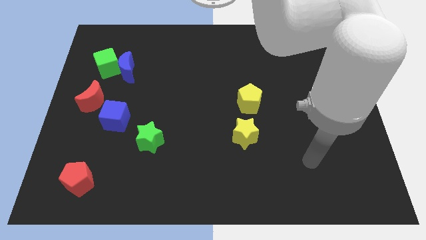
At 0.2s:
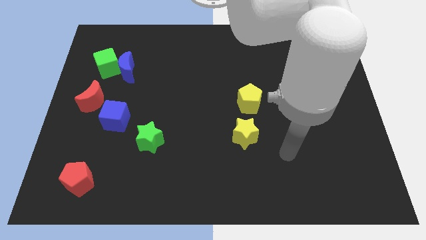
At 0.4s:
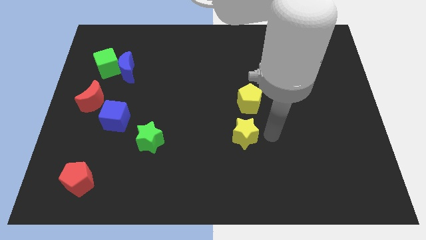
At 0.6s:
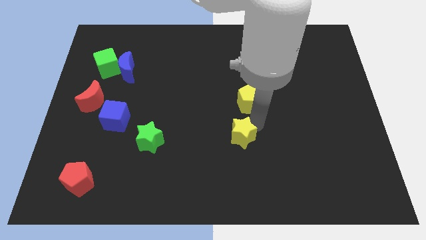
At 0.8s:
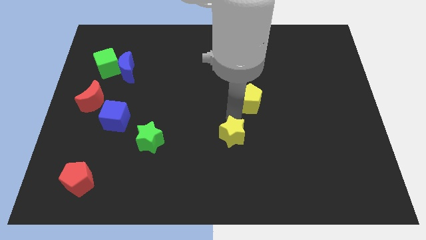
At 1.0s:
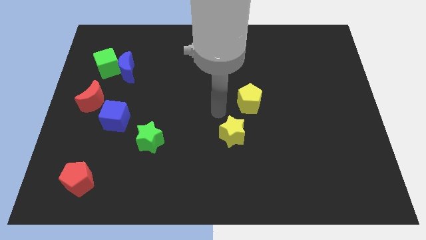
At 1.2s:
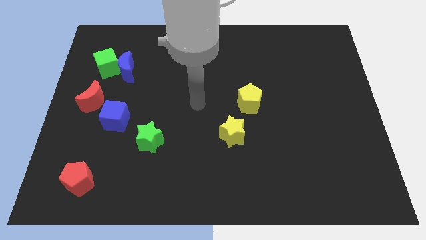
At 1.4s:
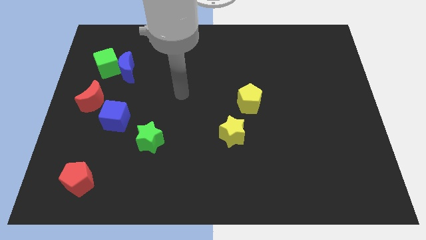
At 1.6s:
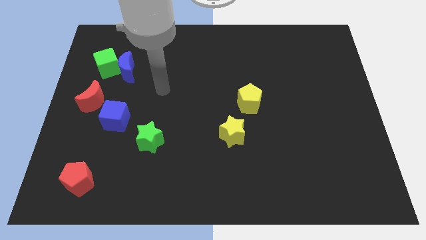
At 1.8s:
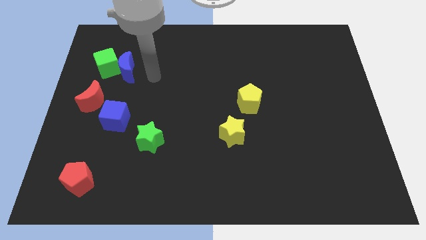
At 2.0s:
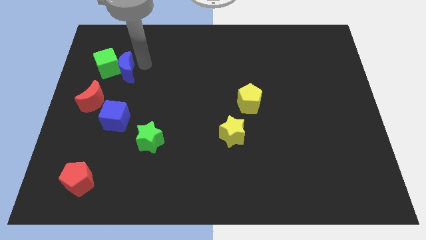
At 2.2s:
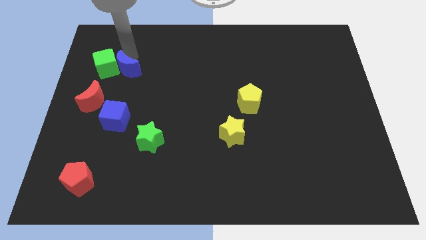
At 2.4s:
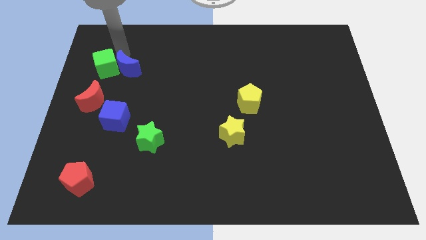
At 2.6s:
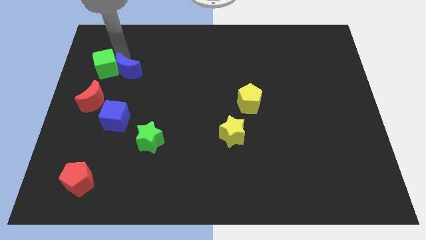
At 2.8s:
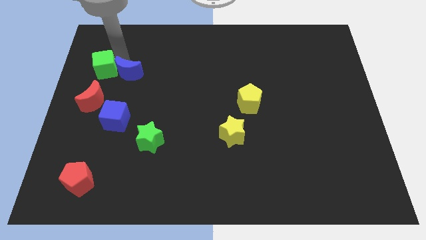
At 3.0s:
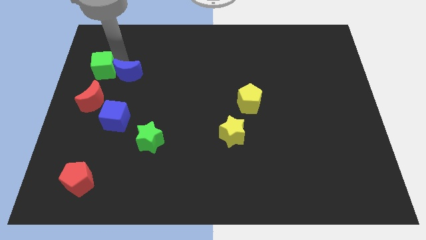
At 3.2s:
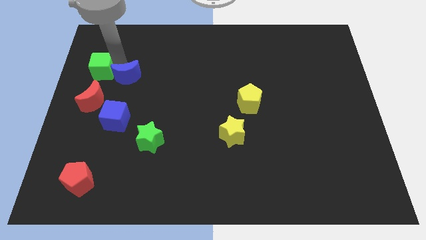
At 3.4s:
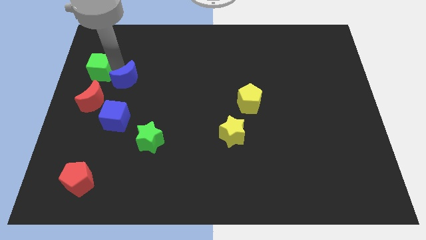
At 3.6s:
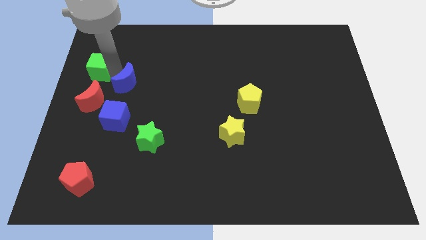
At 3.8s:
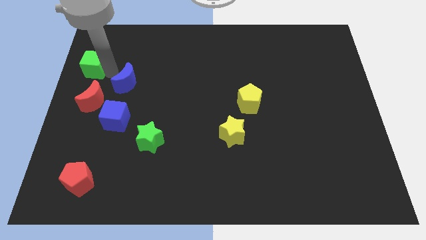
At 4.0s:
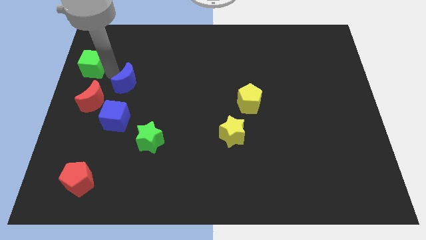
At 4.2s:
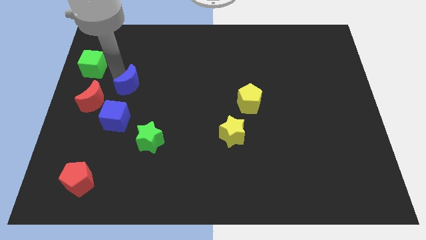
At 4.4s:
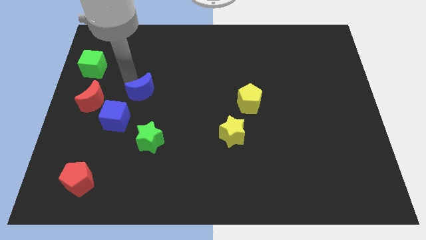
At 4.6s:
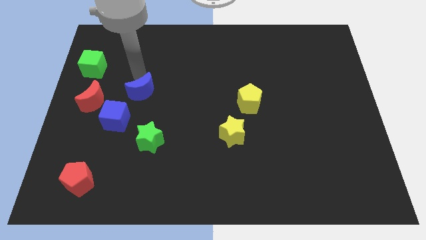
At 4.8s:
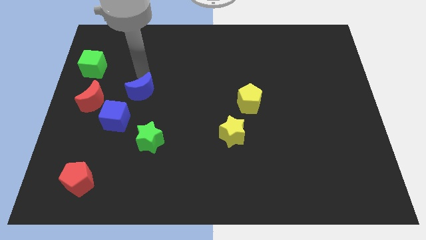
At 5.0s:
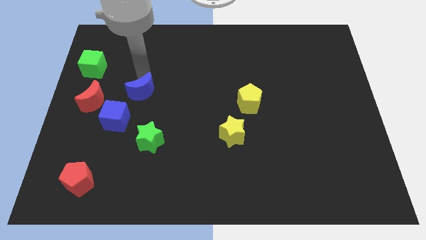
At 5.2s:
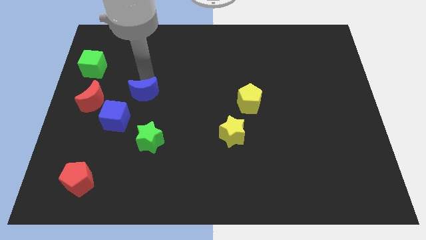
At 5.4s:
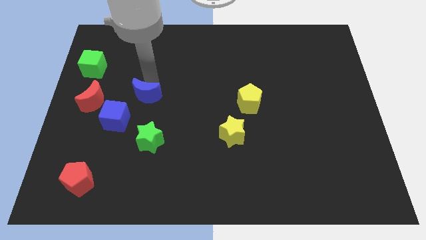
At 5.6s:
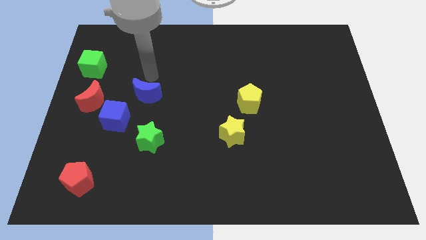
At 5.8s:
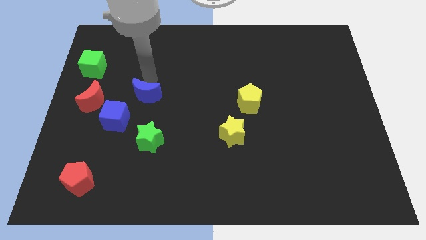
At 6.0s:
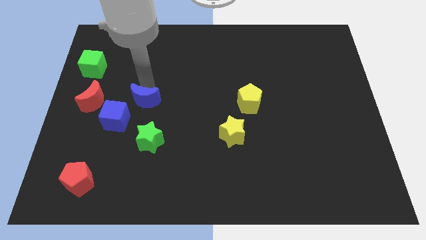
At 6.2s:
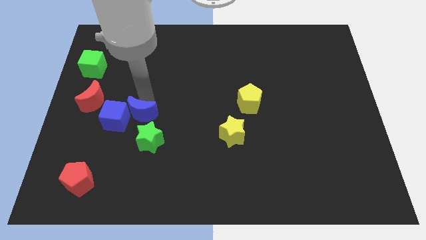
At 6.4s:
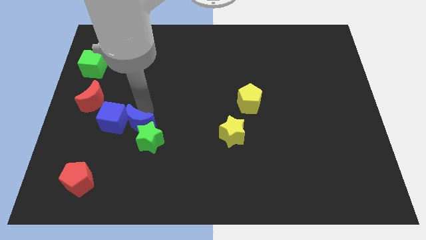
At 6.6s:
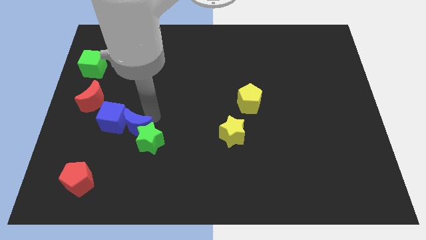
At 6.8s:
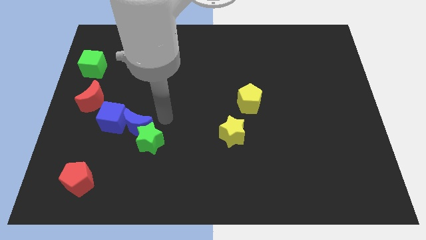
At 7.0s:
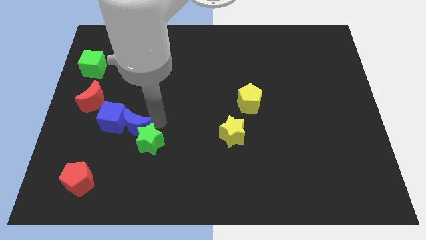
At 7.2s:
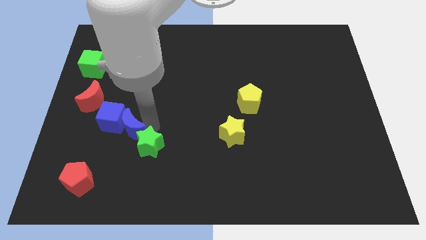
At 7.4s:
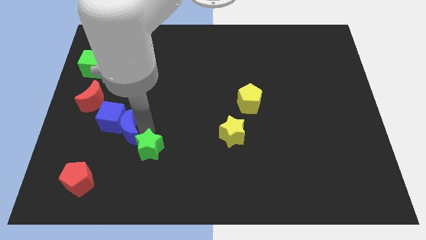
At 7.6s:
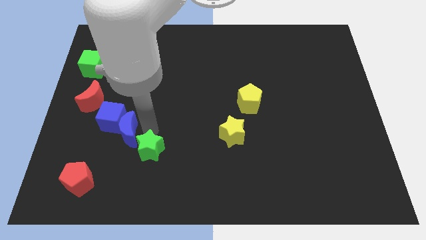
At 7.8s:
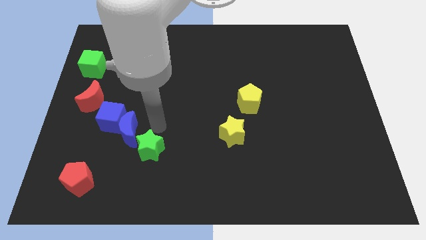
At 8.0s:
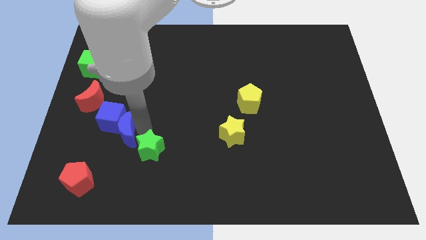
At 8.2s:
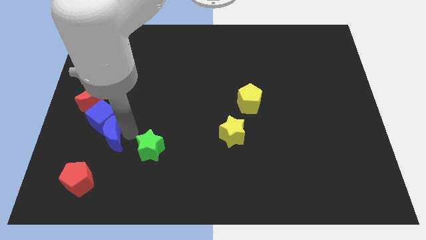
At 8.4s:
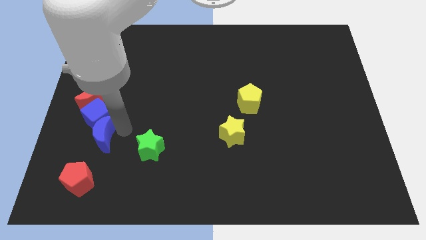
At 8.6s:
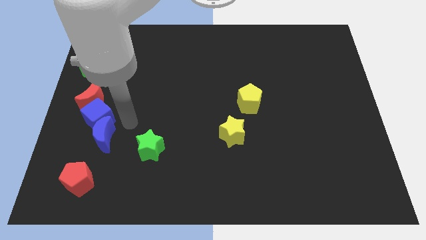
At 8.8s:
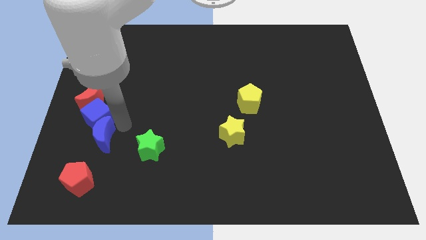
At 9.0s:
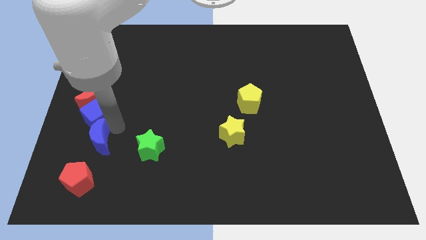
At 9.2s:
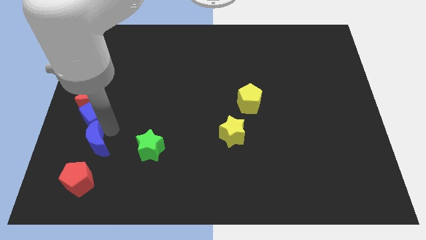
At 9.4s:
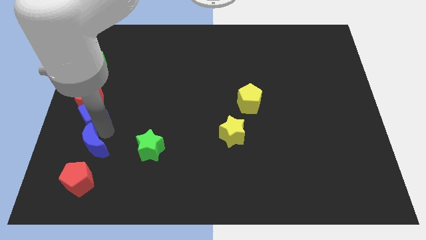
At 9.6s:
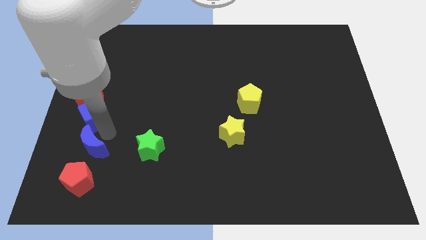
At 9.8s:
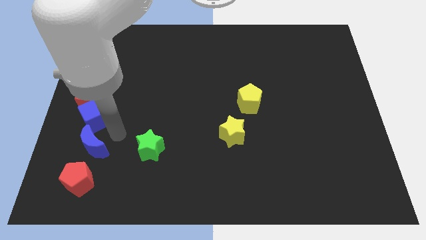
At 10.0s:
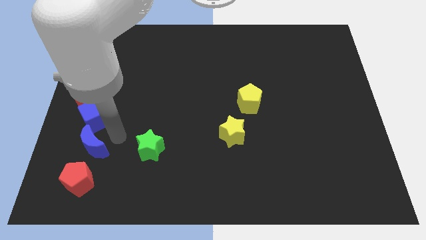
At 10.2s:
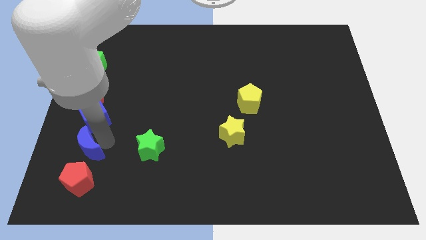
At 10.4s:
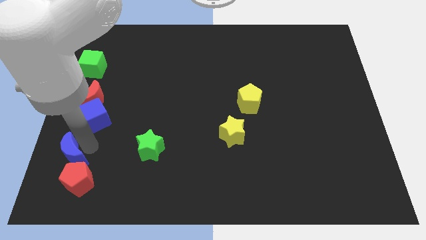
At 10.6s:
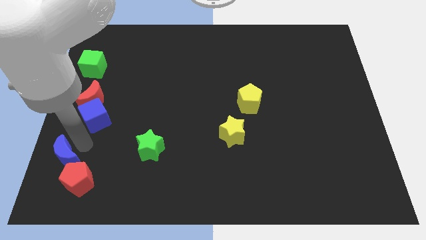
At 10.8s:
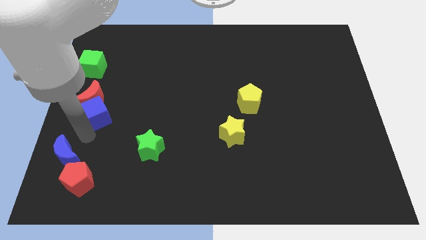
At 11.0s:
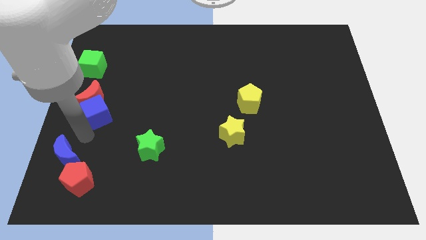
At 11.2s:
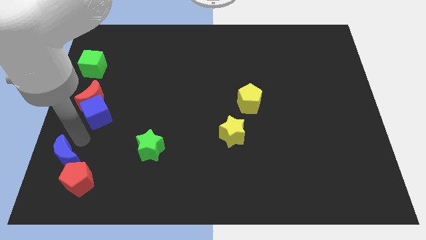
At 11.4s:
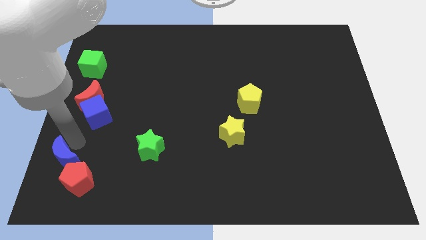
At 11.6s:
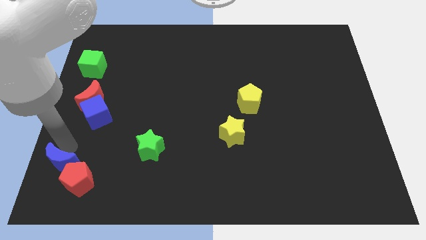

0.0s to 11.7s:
push the blue moon to the bottom left of the board

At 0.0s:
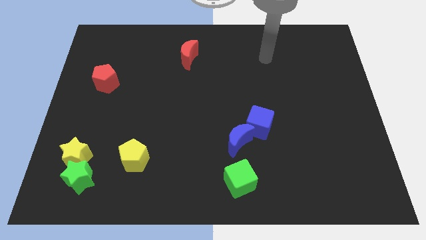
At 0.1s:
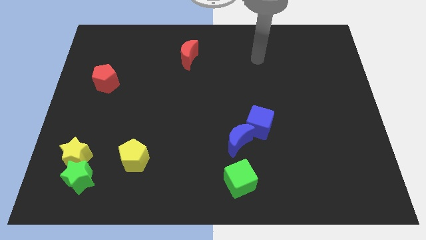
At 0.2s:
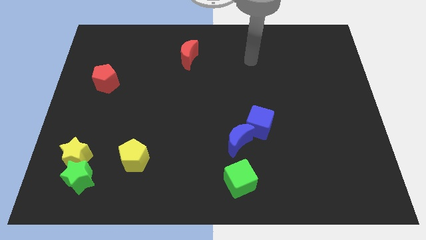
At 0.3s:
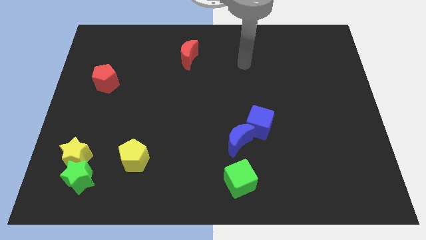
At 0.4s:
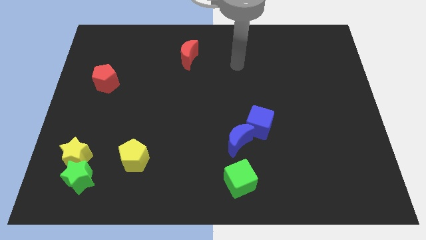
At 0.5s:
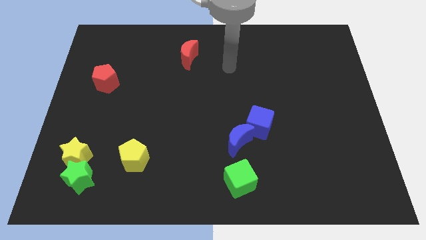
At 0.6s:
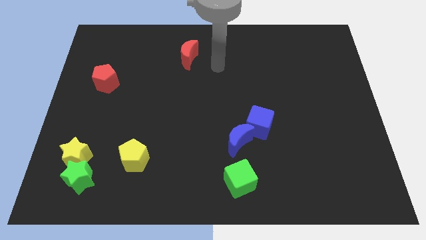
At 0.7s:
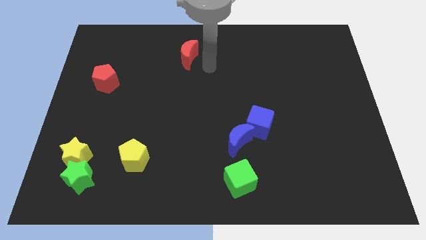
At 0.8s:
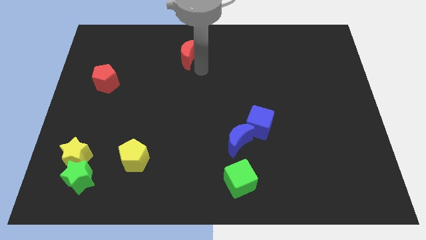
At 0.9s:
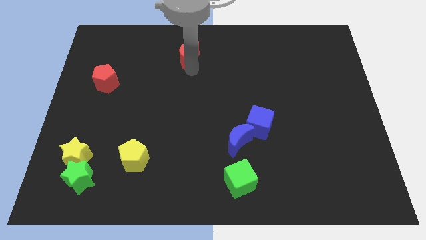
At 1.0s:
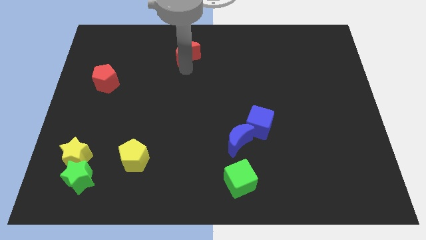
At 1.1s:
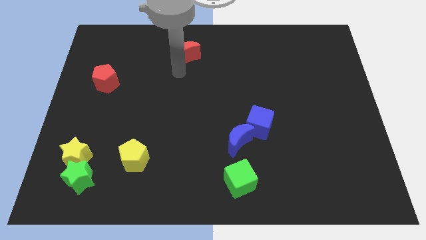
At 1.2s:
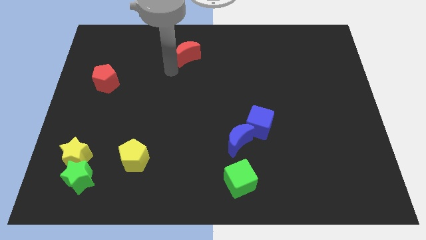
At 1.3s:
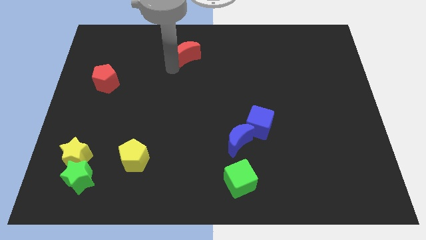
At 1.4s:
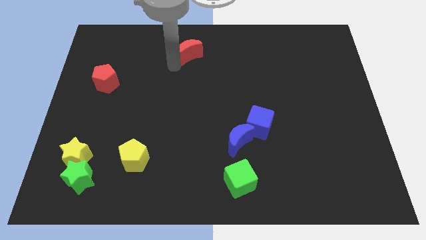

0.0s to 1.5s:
move the red moon to the towards your base
